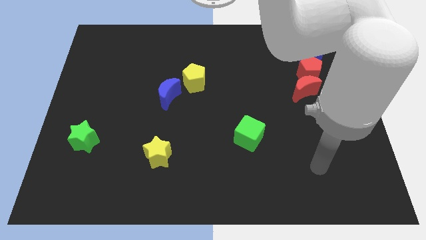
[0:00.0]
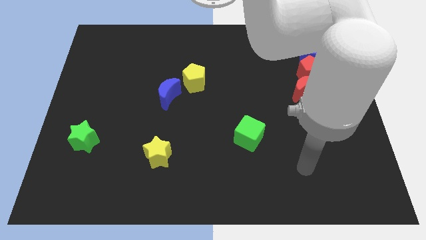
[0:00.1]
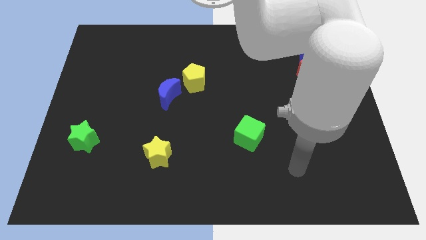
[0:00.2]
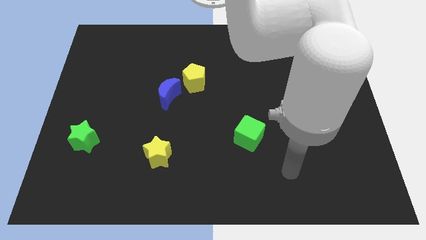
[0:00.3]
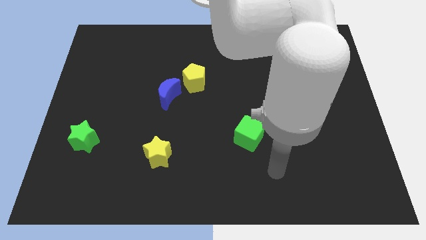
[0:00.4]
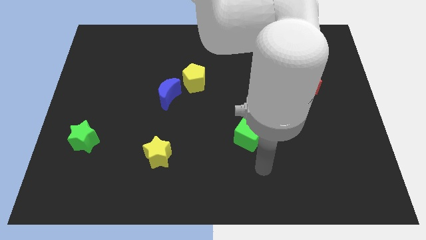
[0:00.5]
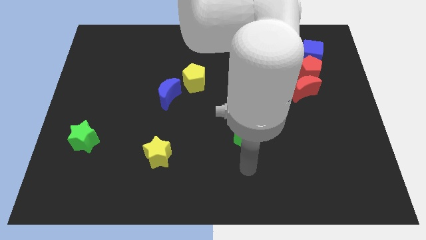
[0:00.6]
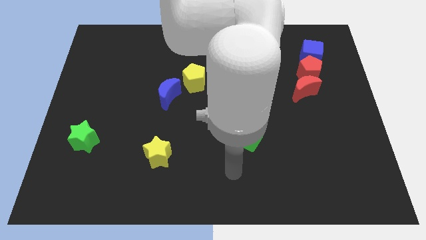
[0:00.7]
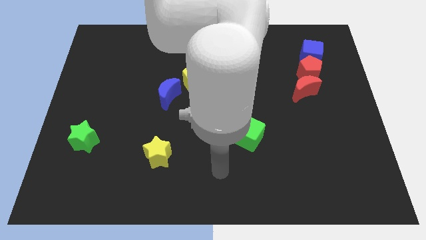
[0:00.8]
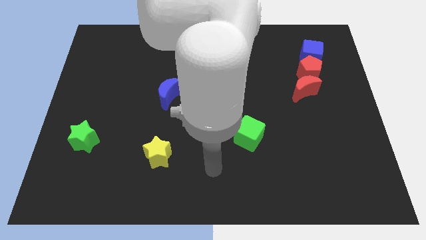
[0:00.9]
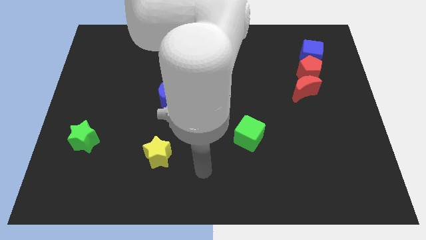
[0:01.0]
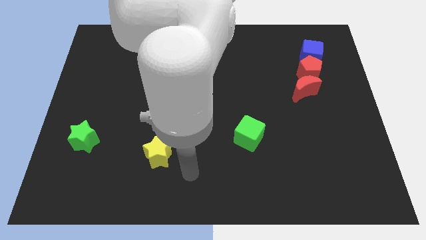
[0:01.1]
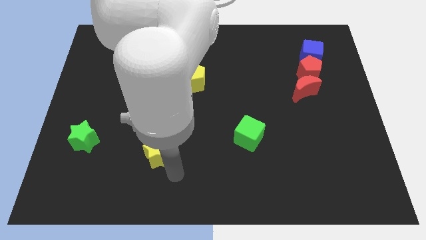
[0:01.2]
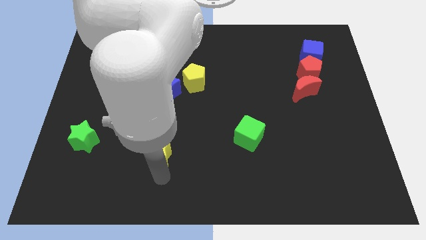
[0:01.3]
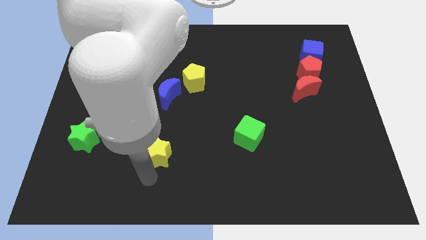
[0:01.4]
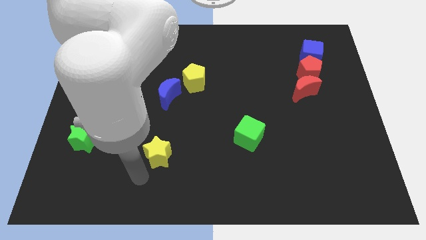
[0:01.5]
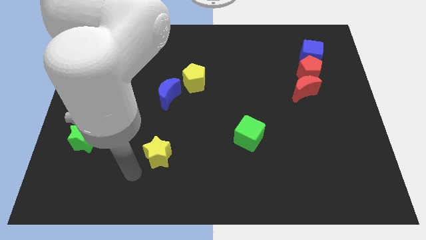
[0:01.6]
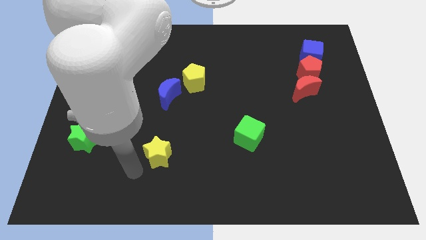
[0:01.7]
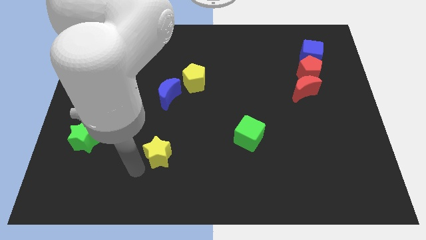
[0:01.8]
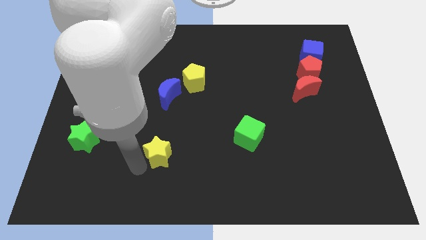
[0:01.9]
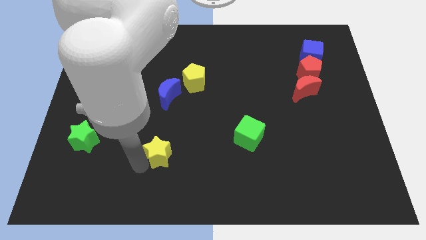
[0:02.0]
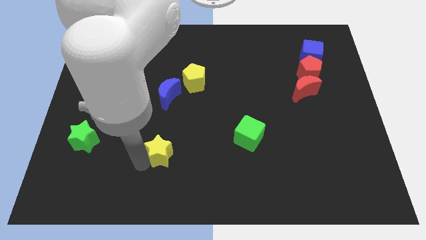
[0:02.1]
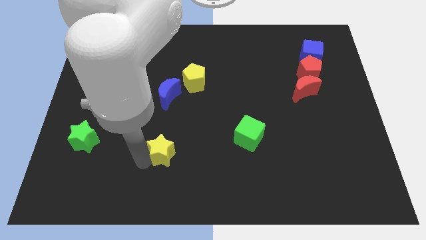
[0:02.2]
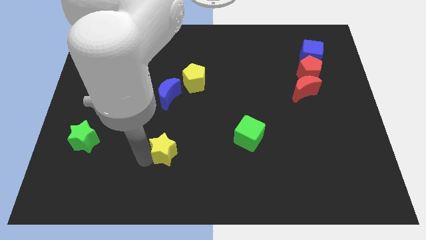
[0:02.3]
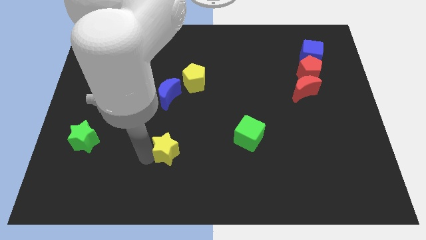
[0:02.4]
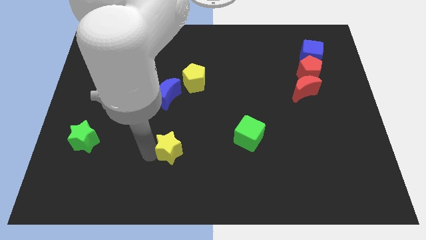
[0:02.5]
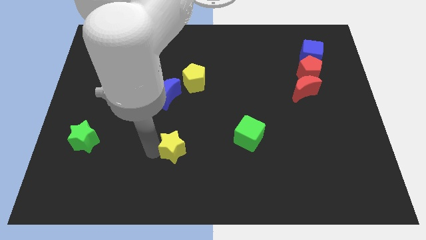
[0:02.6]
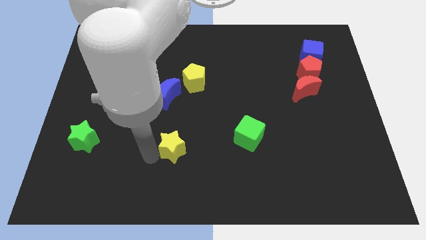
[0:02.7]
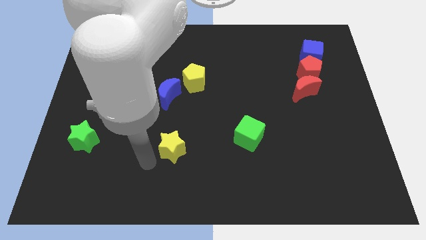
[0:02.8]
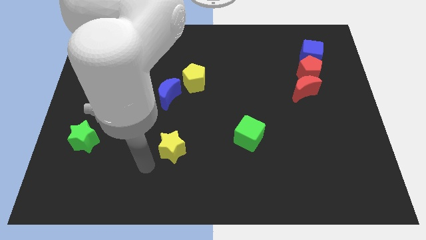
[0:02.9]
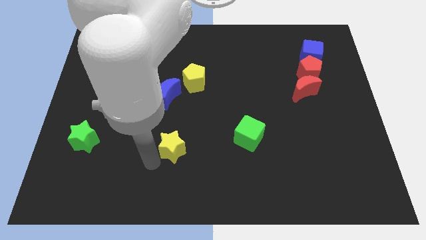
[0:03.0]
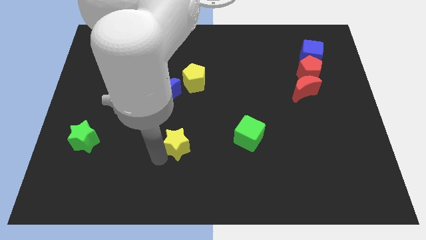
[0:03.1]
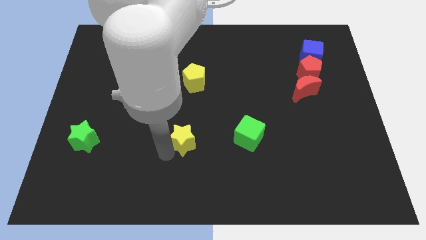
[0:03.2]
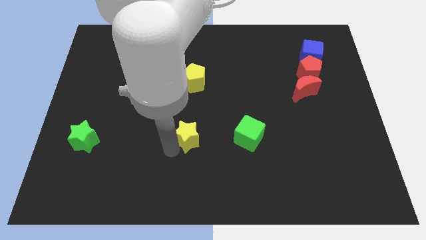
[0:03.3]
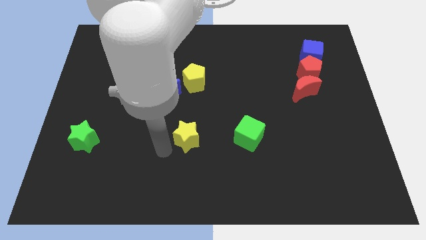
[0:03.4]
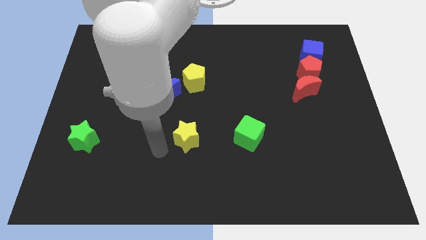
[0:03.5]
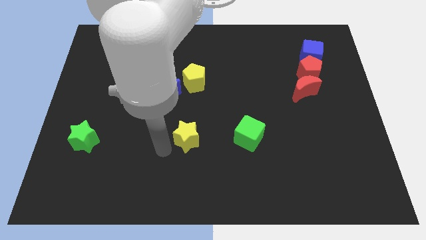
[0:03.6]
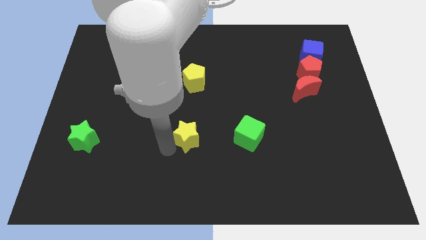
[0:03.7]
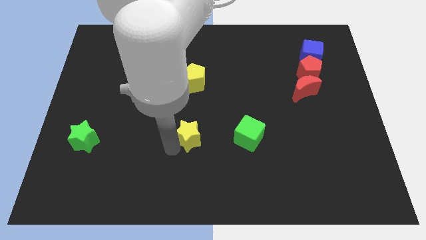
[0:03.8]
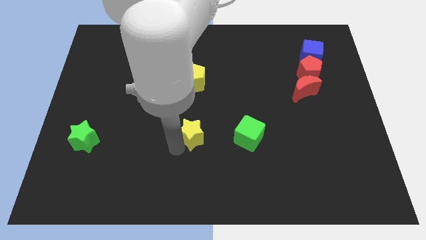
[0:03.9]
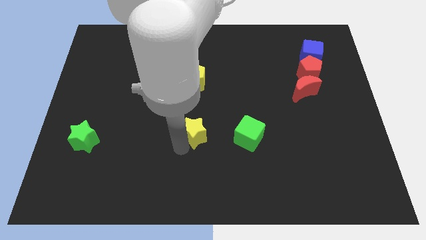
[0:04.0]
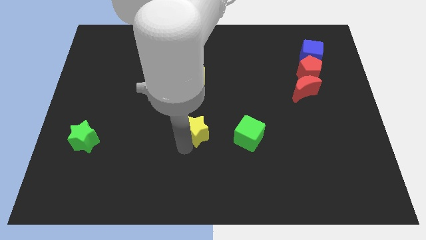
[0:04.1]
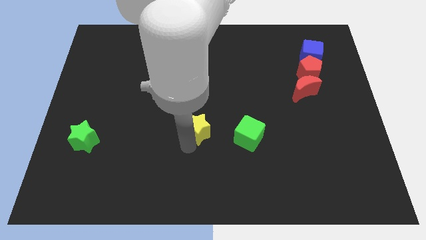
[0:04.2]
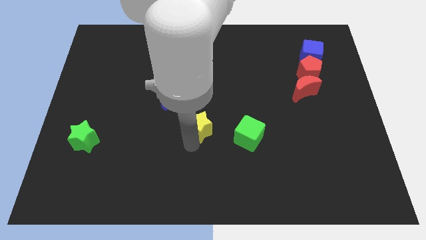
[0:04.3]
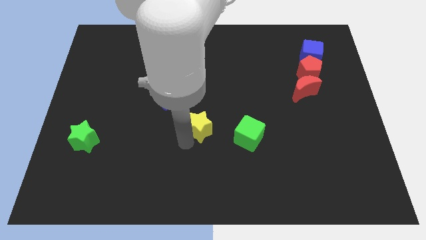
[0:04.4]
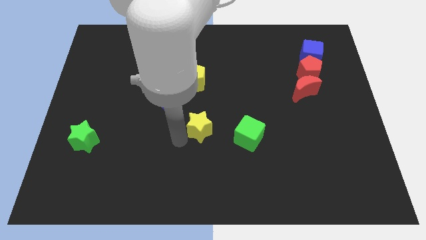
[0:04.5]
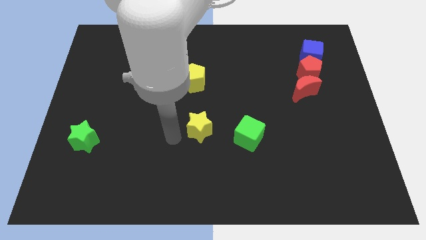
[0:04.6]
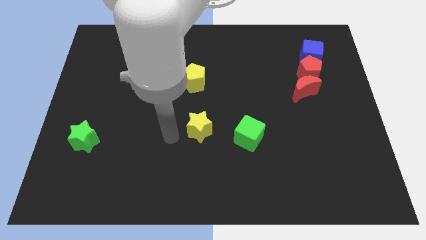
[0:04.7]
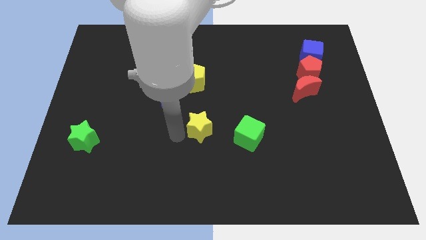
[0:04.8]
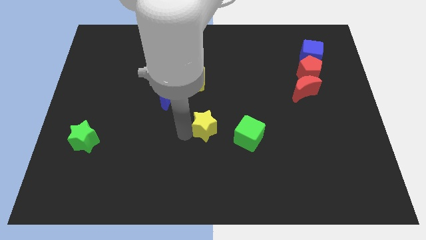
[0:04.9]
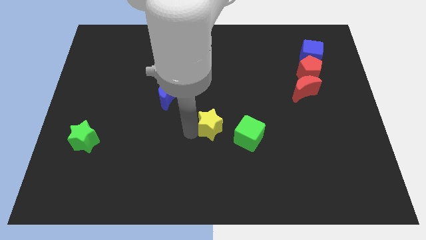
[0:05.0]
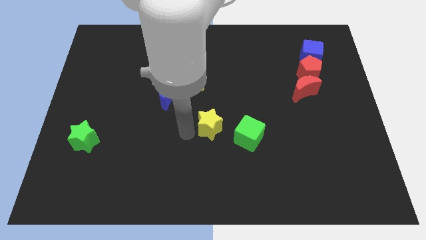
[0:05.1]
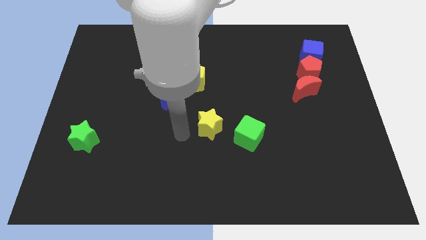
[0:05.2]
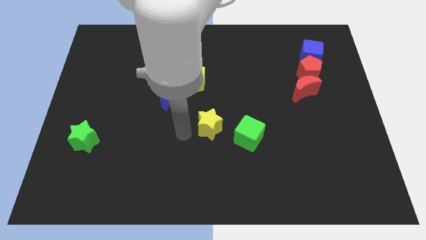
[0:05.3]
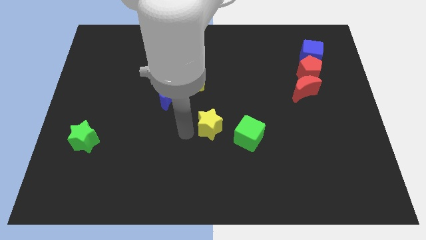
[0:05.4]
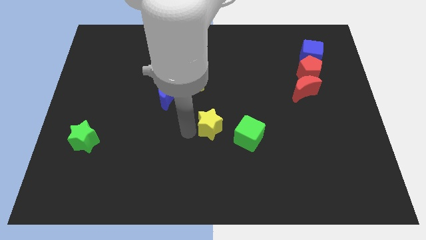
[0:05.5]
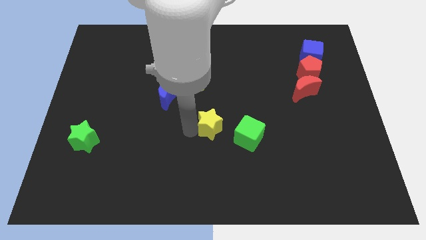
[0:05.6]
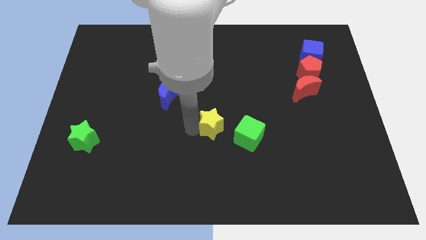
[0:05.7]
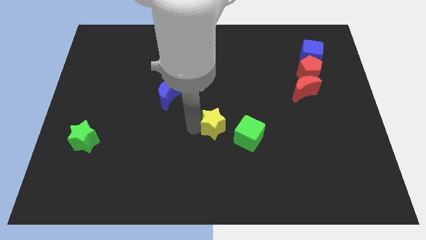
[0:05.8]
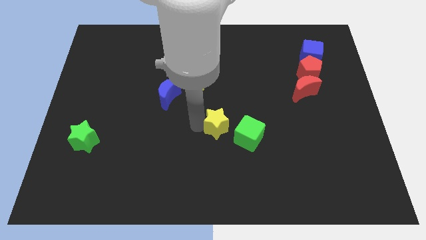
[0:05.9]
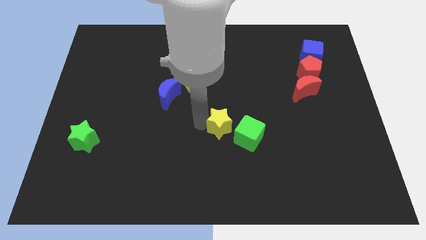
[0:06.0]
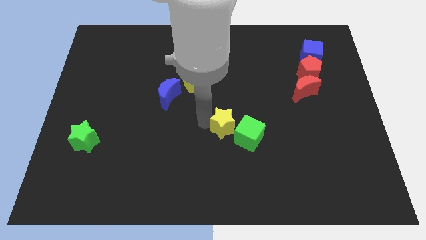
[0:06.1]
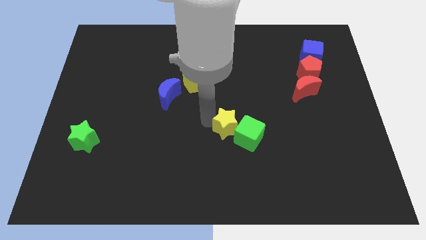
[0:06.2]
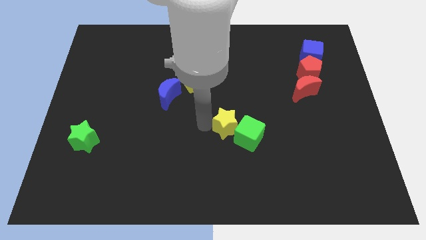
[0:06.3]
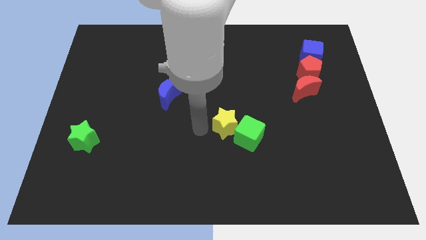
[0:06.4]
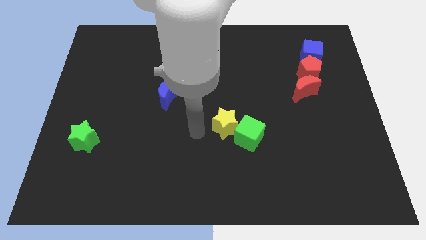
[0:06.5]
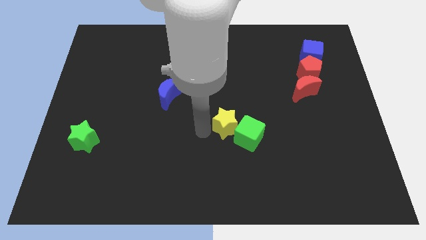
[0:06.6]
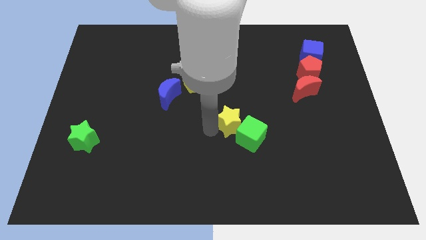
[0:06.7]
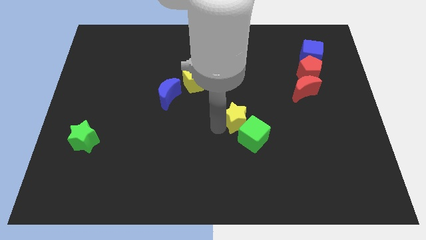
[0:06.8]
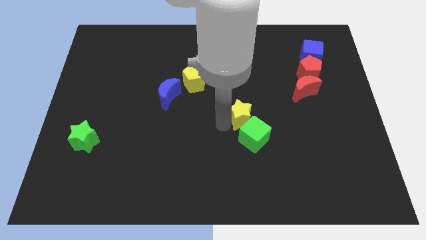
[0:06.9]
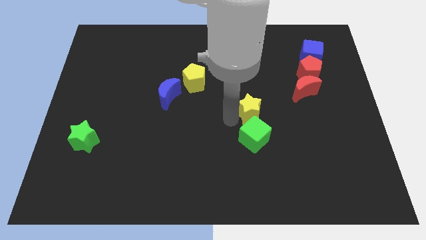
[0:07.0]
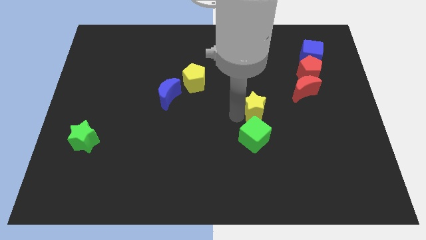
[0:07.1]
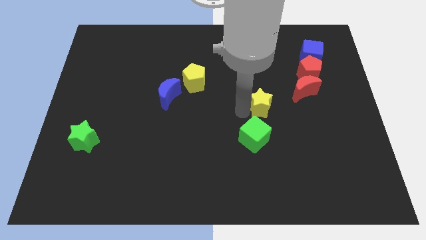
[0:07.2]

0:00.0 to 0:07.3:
push the yellow star diagonally up and to the right of the green cube
